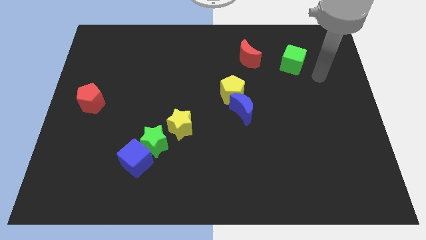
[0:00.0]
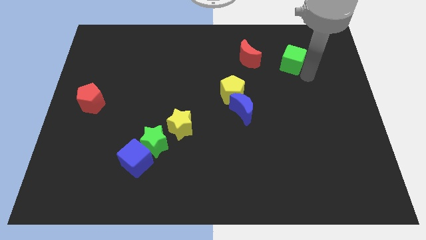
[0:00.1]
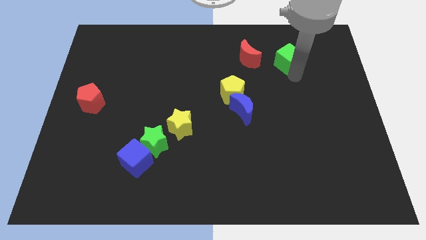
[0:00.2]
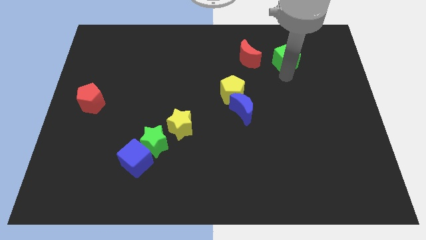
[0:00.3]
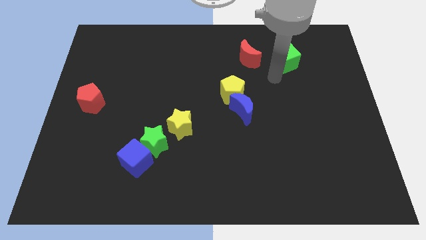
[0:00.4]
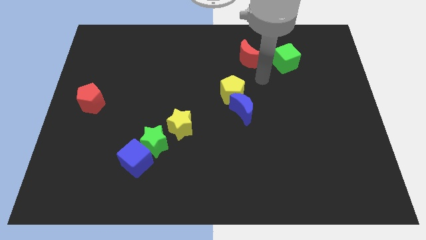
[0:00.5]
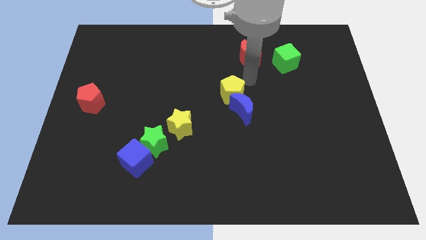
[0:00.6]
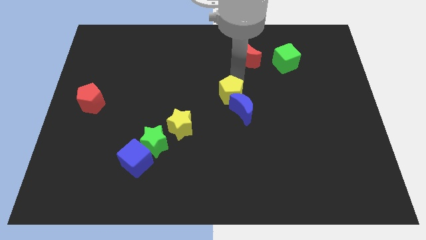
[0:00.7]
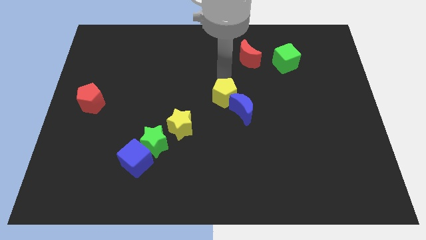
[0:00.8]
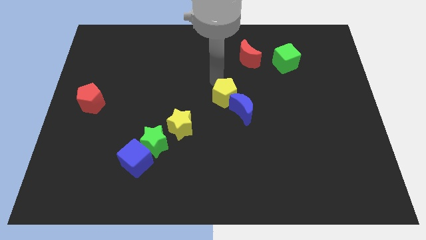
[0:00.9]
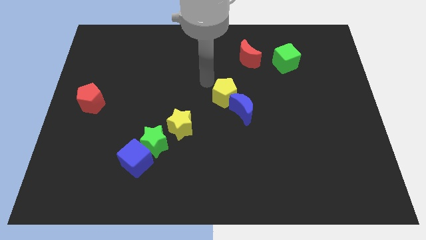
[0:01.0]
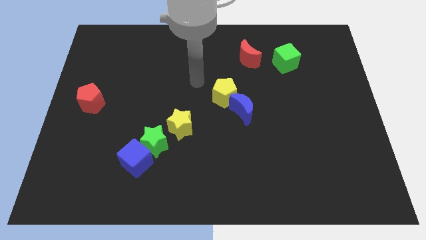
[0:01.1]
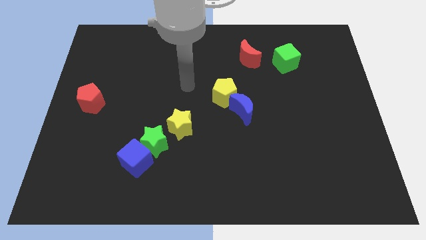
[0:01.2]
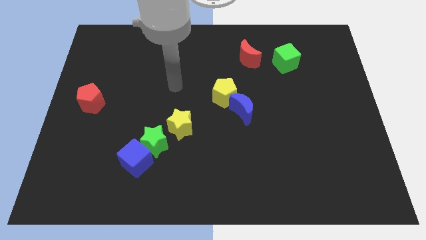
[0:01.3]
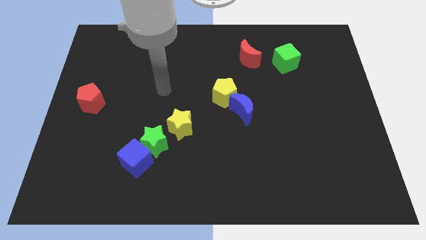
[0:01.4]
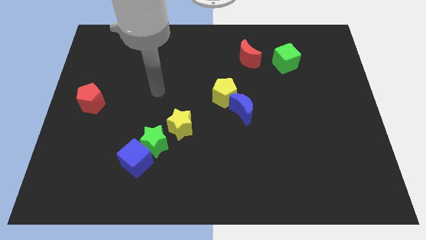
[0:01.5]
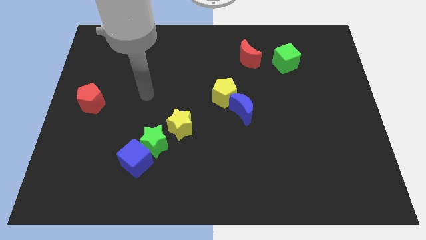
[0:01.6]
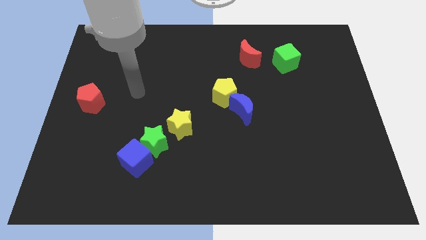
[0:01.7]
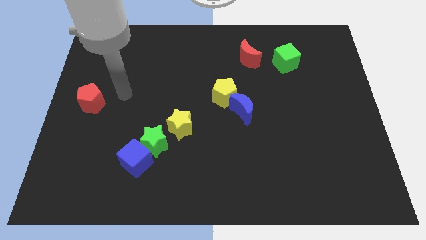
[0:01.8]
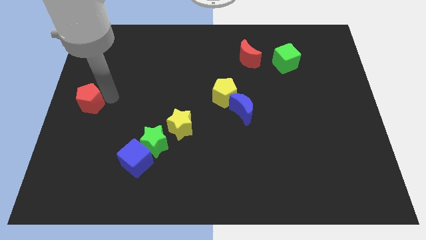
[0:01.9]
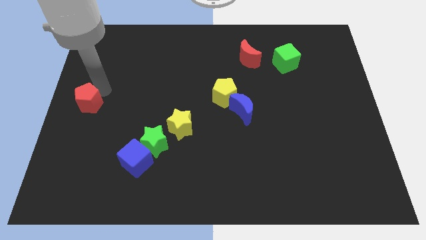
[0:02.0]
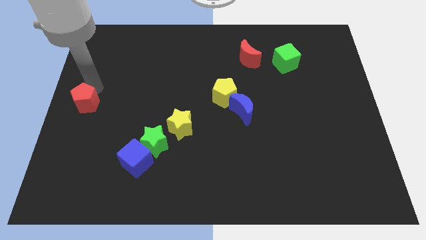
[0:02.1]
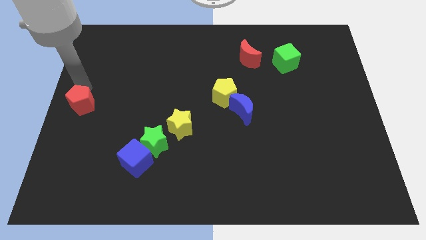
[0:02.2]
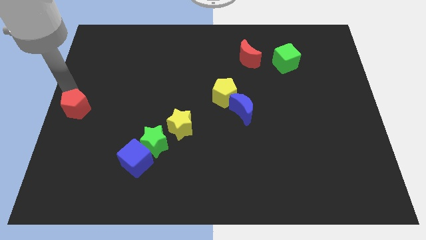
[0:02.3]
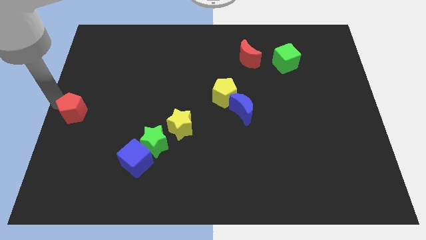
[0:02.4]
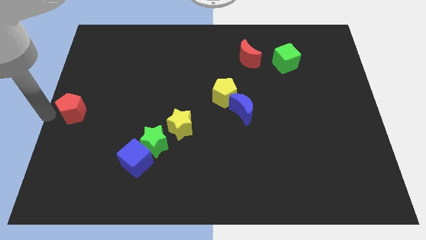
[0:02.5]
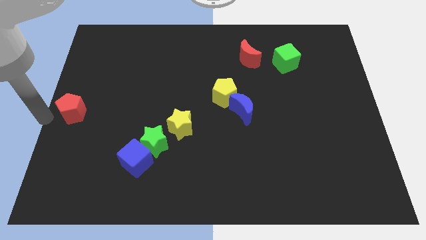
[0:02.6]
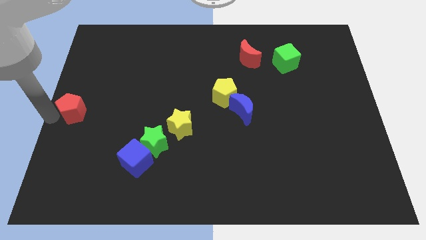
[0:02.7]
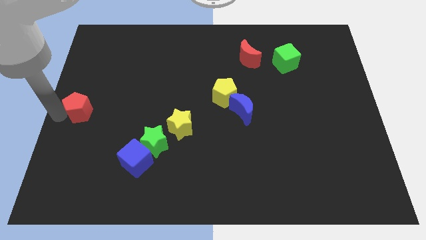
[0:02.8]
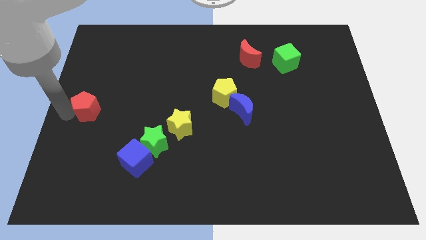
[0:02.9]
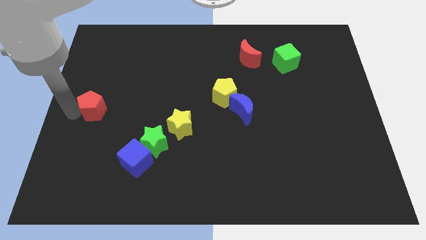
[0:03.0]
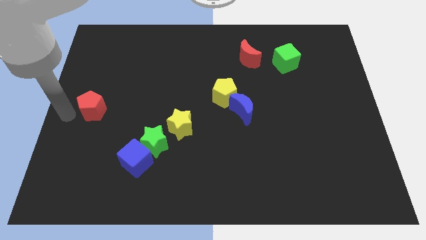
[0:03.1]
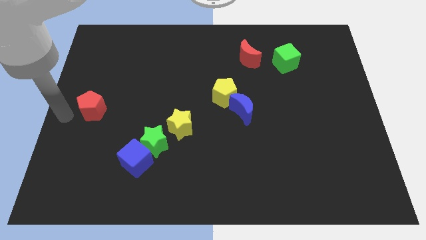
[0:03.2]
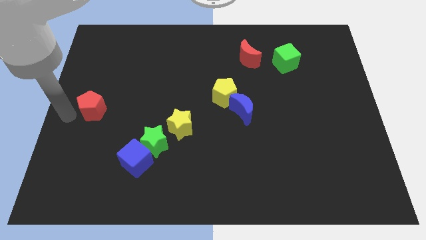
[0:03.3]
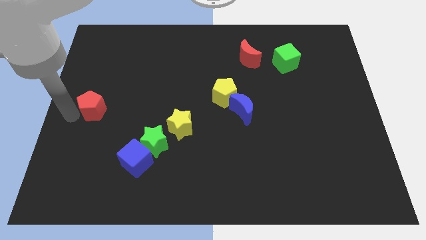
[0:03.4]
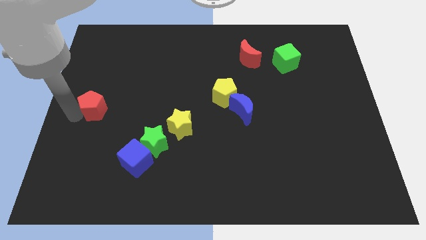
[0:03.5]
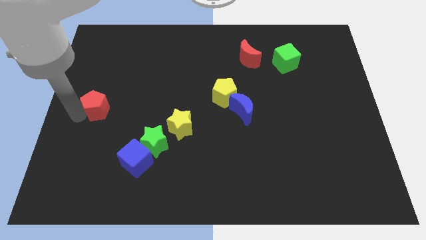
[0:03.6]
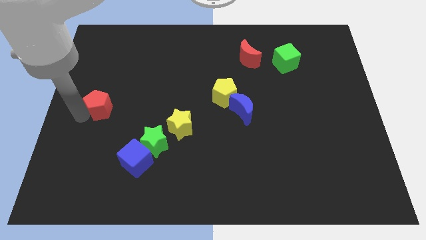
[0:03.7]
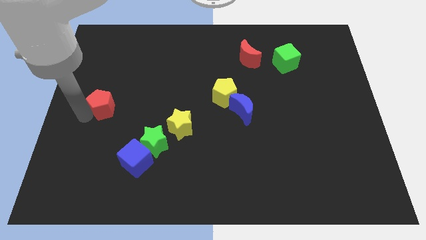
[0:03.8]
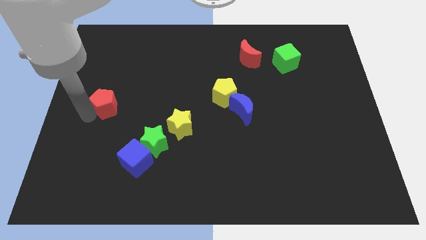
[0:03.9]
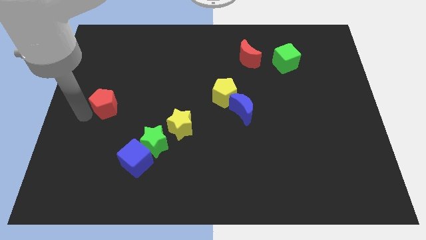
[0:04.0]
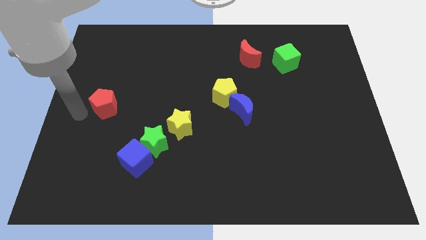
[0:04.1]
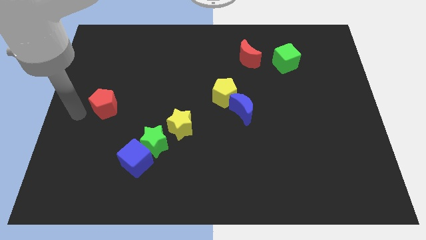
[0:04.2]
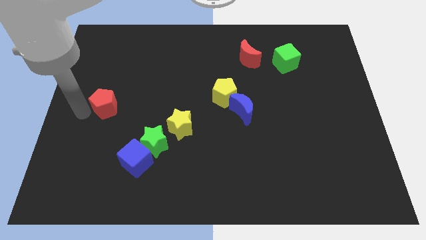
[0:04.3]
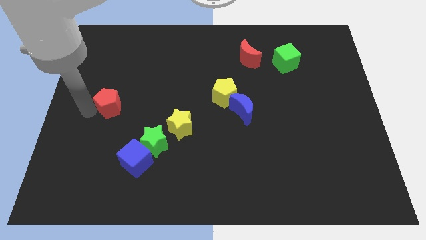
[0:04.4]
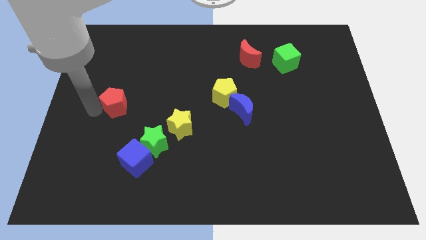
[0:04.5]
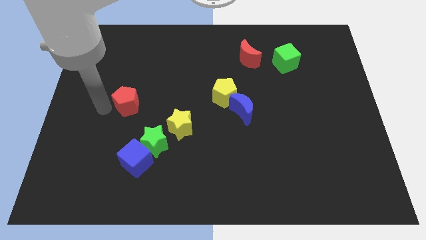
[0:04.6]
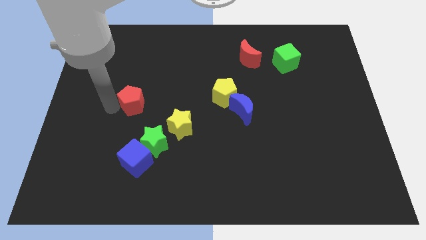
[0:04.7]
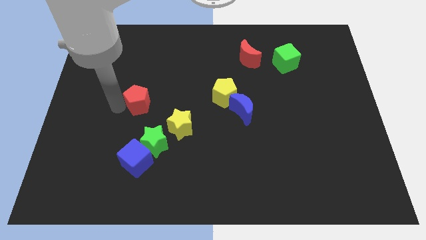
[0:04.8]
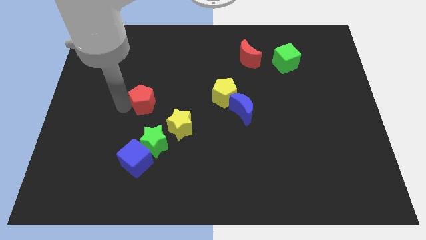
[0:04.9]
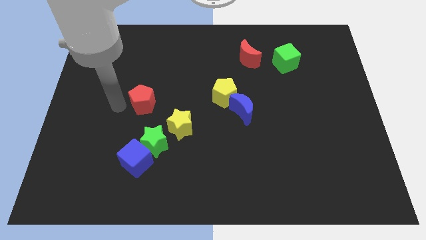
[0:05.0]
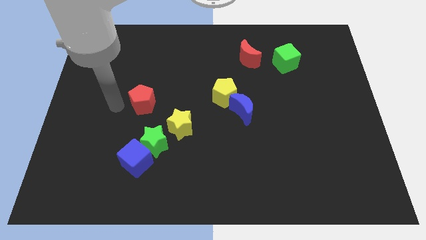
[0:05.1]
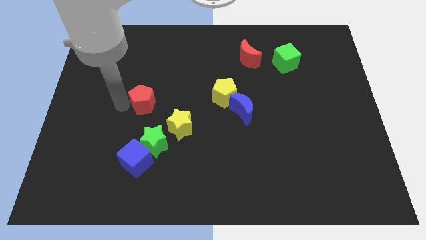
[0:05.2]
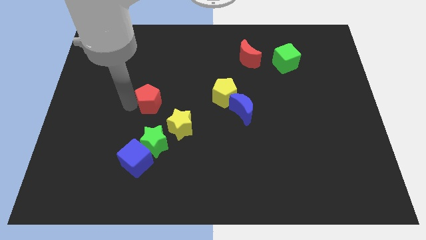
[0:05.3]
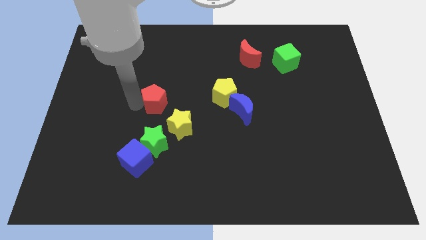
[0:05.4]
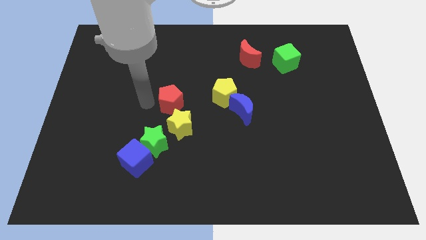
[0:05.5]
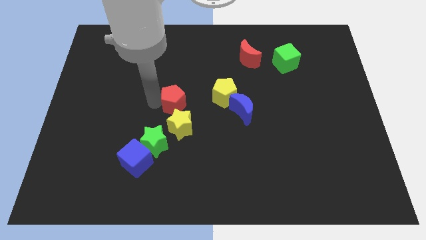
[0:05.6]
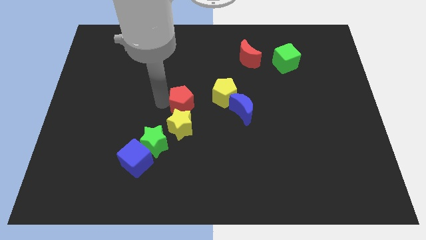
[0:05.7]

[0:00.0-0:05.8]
slide the red pentagon left of the blue moon

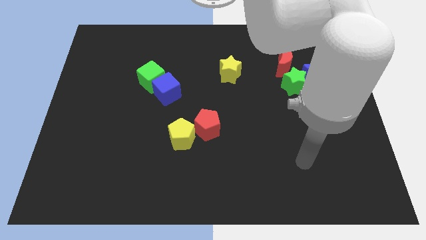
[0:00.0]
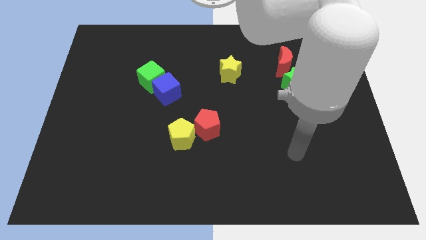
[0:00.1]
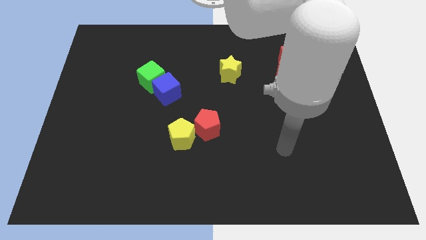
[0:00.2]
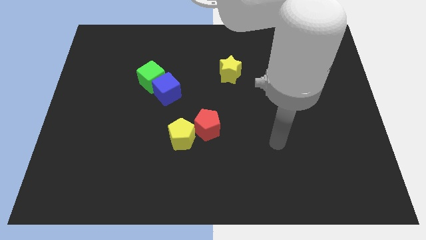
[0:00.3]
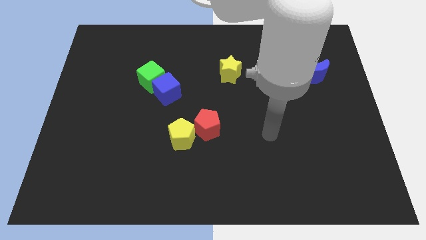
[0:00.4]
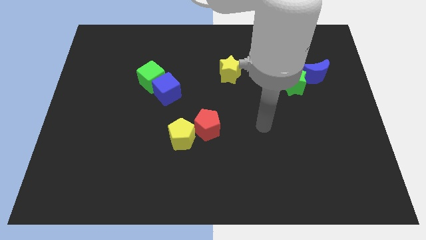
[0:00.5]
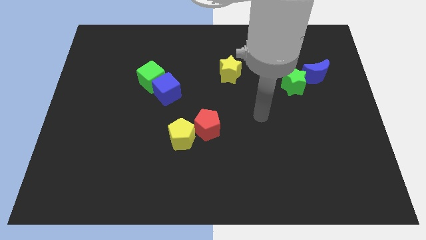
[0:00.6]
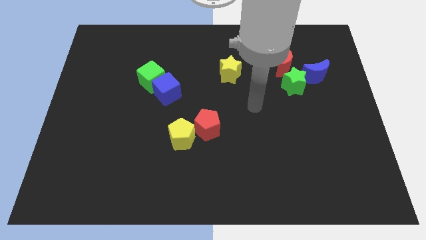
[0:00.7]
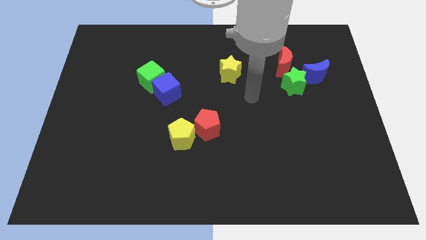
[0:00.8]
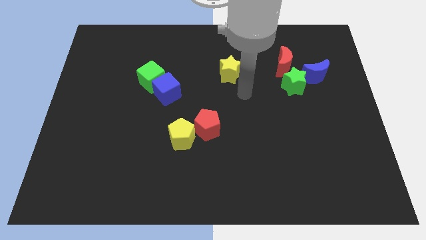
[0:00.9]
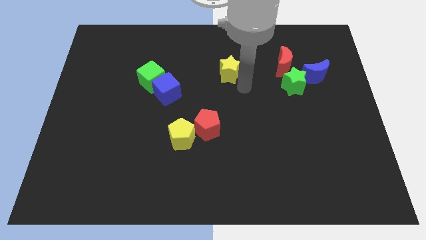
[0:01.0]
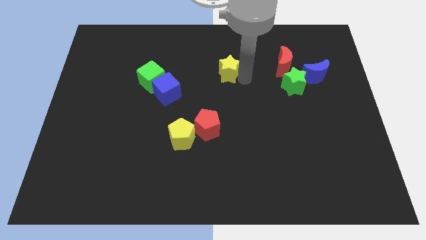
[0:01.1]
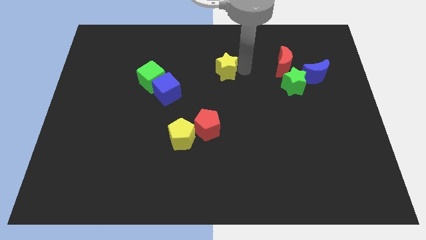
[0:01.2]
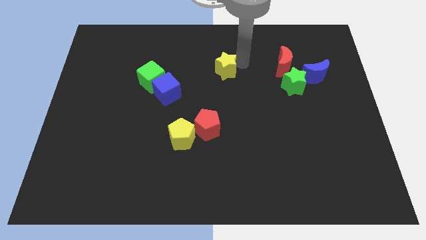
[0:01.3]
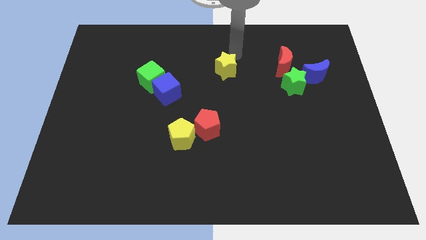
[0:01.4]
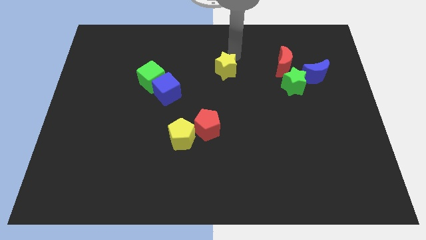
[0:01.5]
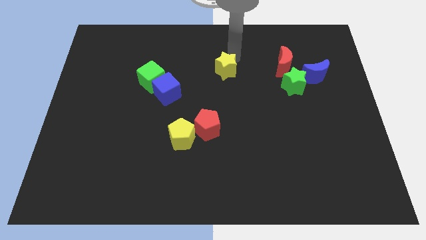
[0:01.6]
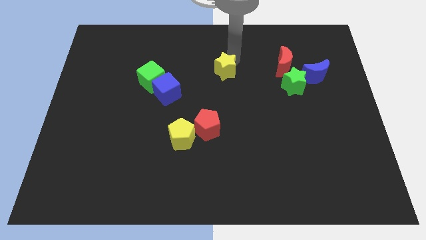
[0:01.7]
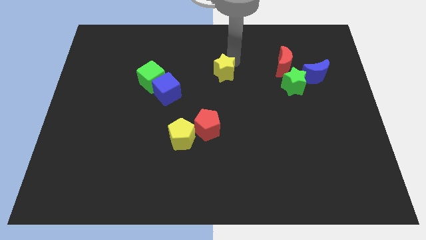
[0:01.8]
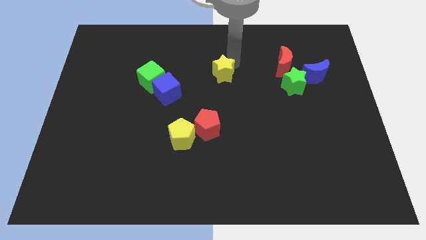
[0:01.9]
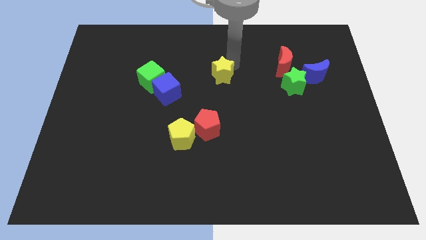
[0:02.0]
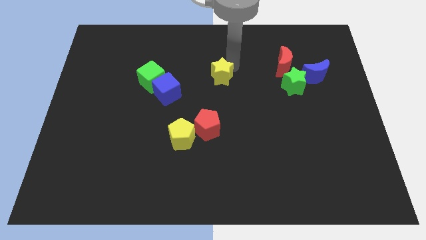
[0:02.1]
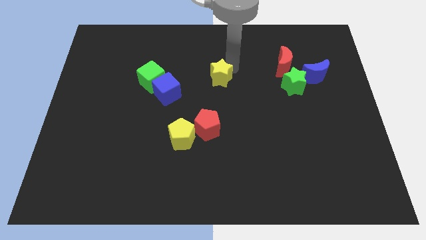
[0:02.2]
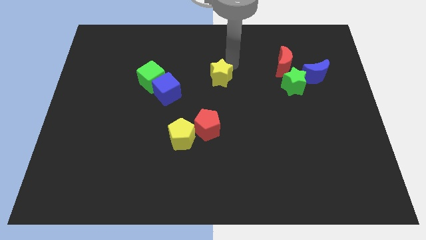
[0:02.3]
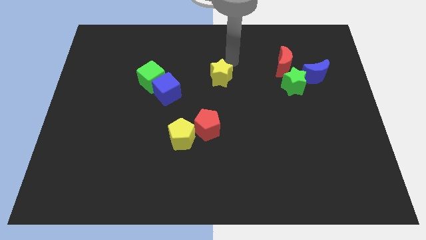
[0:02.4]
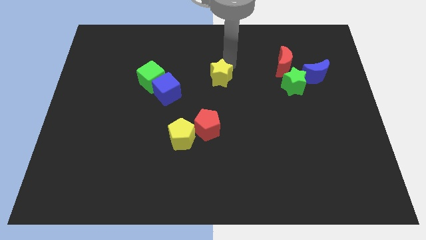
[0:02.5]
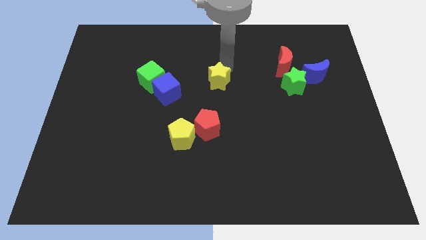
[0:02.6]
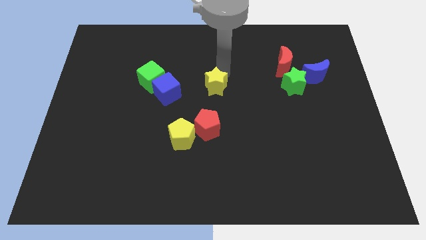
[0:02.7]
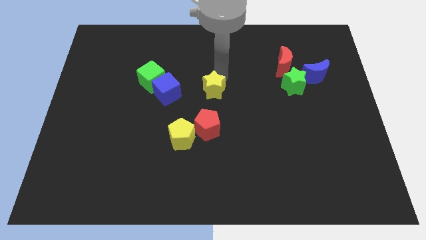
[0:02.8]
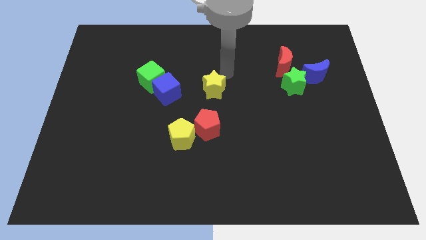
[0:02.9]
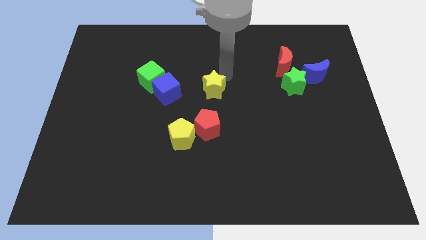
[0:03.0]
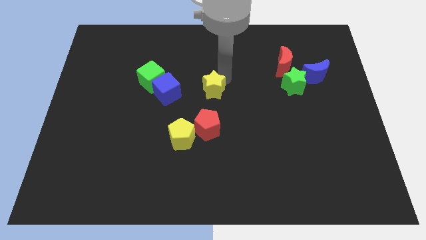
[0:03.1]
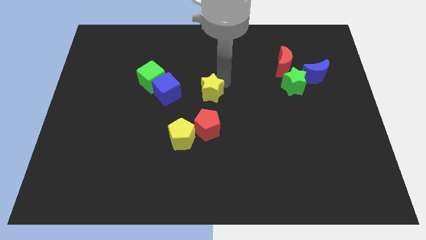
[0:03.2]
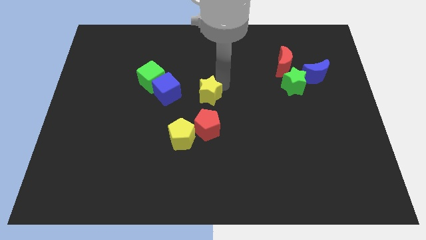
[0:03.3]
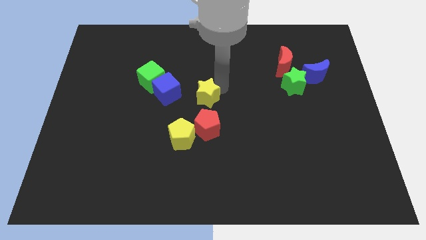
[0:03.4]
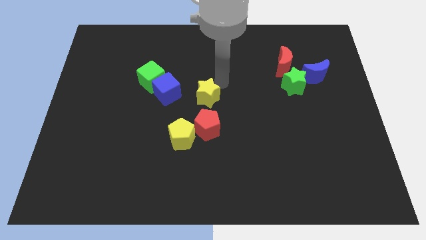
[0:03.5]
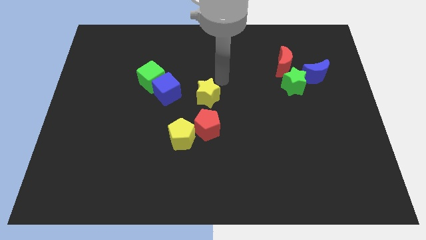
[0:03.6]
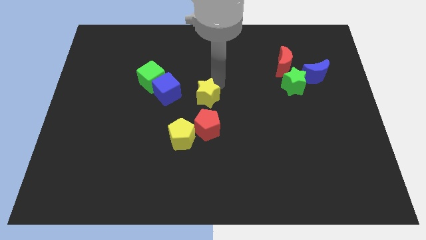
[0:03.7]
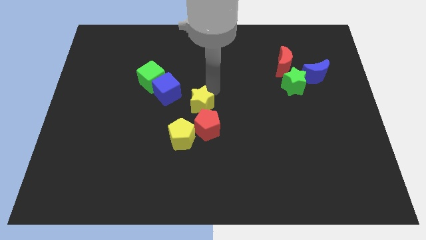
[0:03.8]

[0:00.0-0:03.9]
slide the yellow star to the top right of the yellow pentagon
